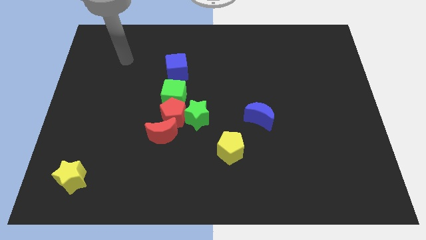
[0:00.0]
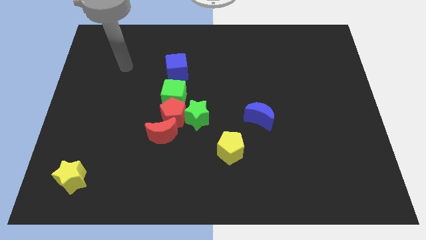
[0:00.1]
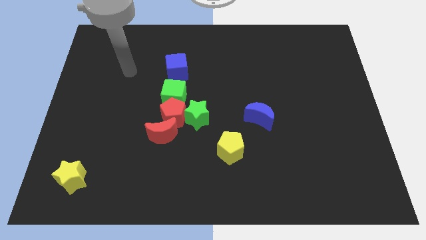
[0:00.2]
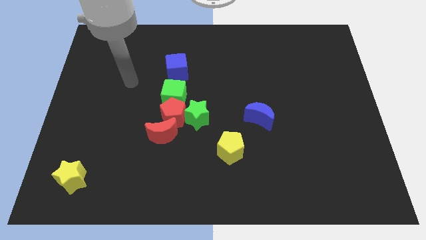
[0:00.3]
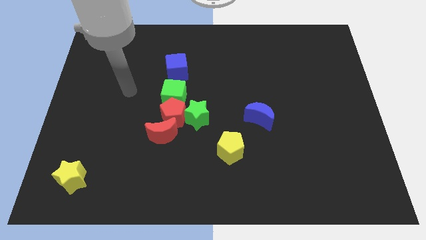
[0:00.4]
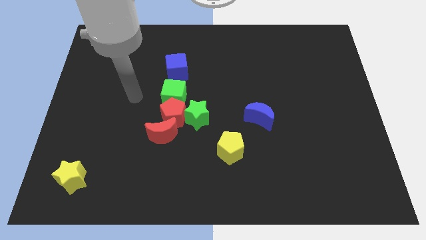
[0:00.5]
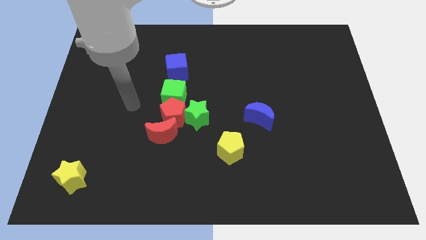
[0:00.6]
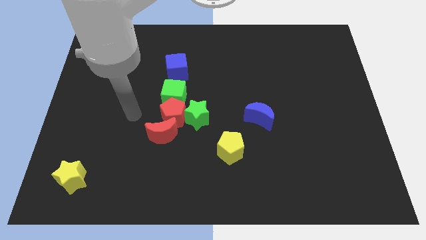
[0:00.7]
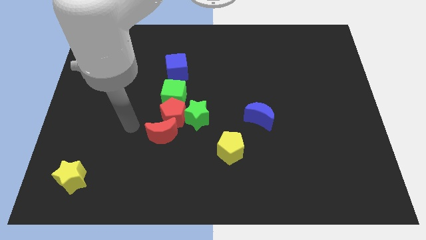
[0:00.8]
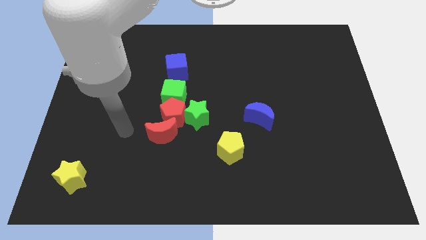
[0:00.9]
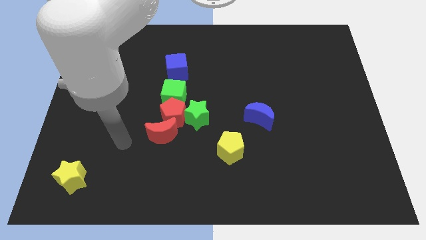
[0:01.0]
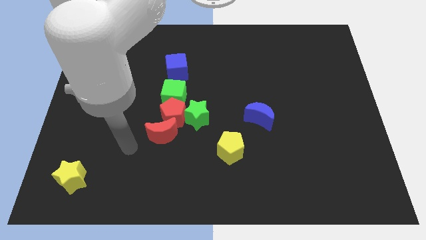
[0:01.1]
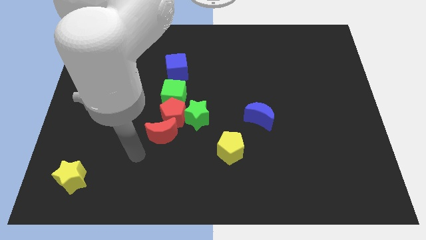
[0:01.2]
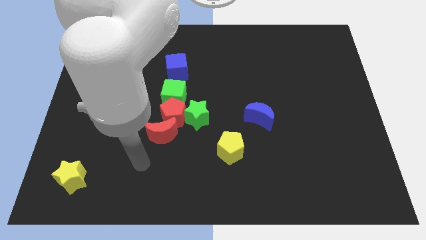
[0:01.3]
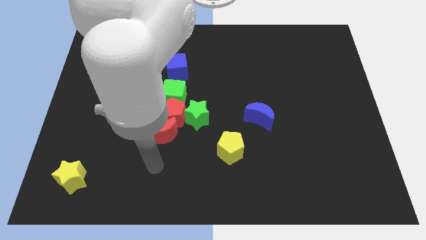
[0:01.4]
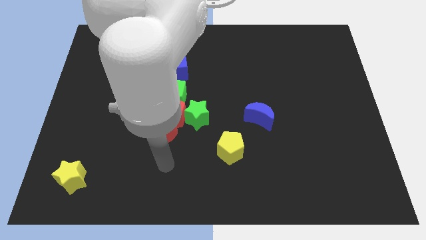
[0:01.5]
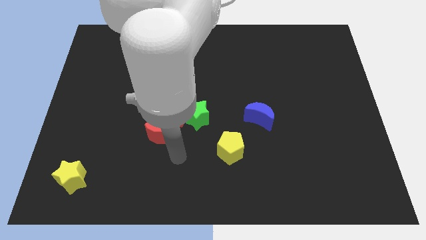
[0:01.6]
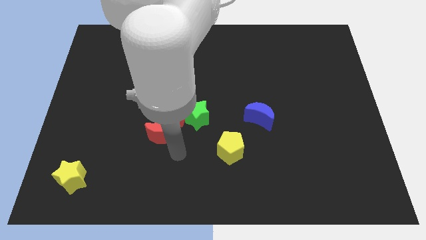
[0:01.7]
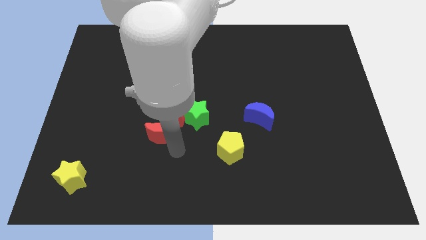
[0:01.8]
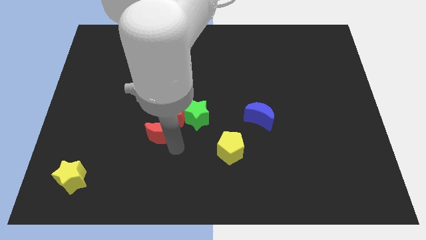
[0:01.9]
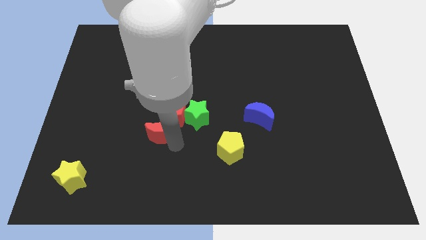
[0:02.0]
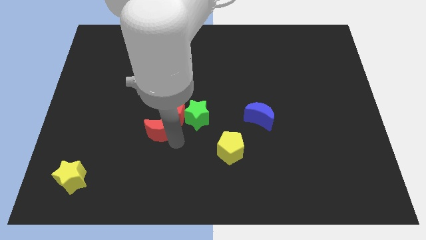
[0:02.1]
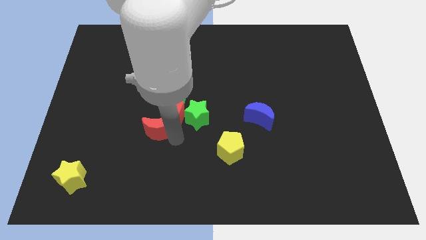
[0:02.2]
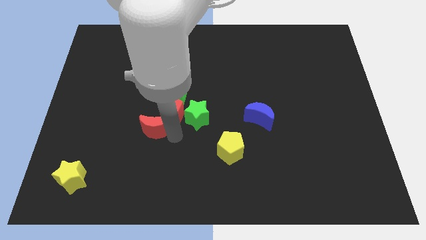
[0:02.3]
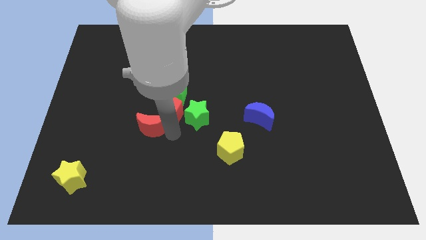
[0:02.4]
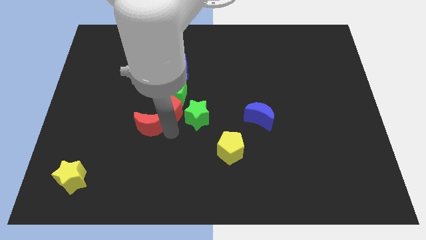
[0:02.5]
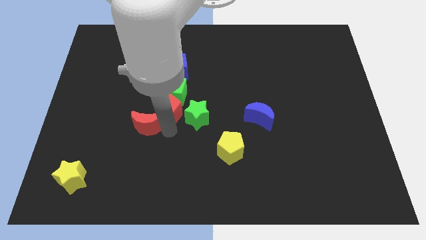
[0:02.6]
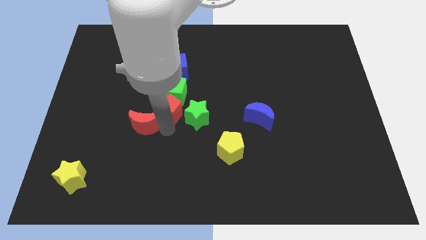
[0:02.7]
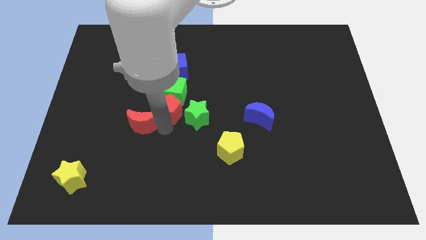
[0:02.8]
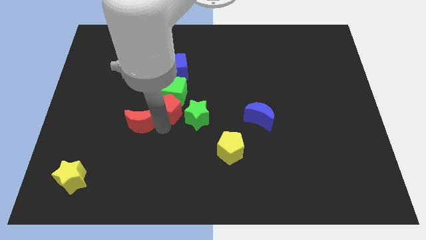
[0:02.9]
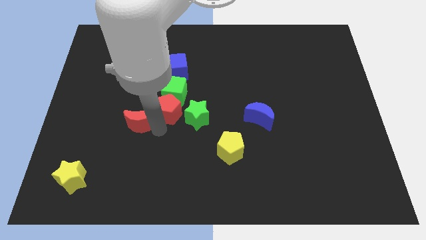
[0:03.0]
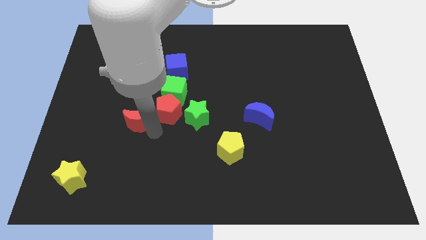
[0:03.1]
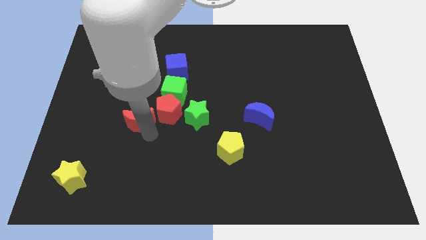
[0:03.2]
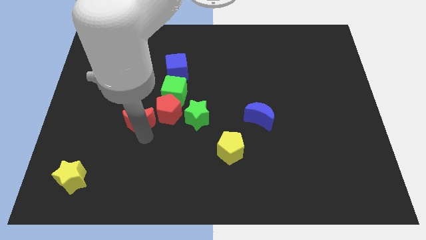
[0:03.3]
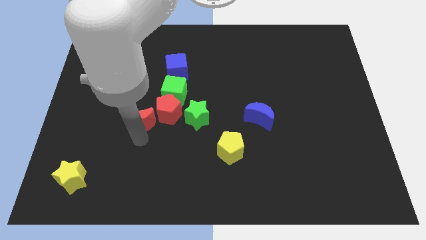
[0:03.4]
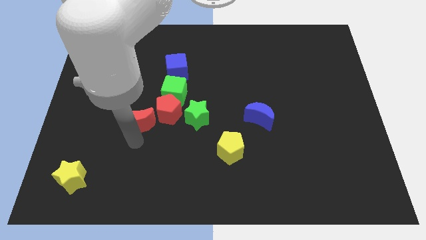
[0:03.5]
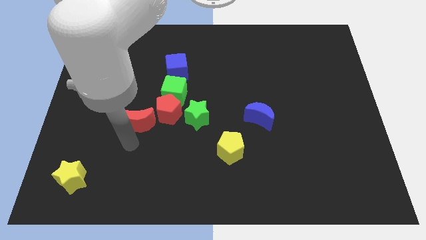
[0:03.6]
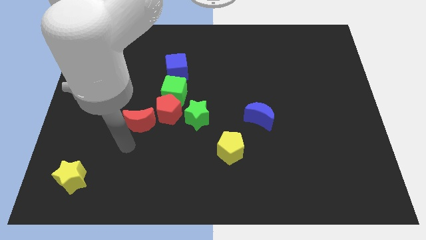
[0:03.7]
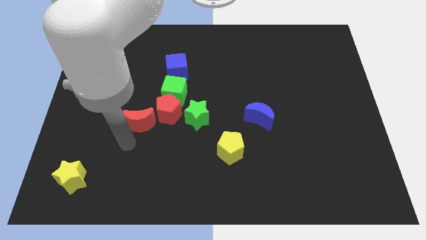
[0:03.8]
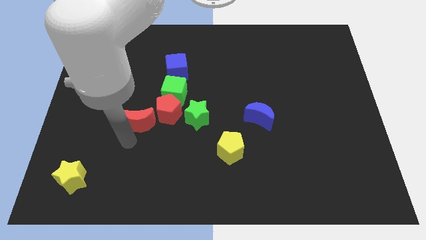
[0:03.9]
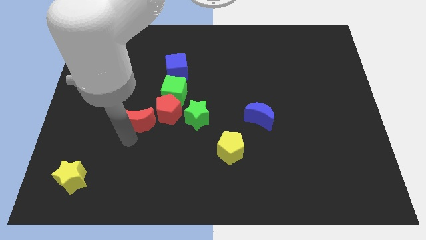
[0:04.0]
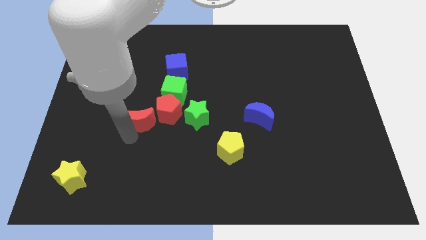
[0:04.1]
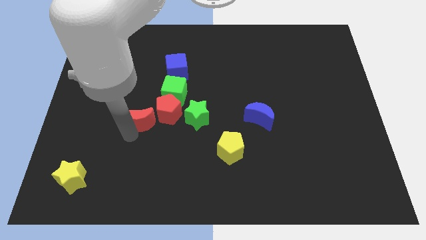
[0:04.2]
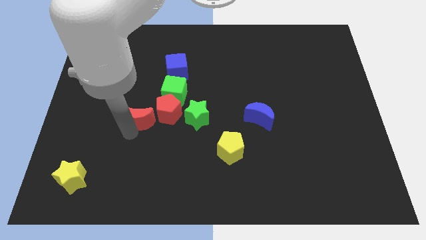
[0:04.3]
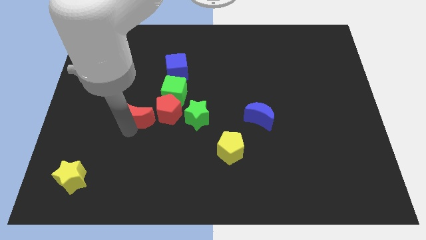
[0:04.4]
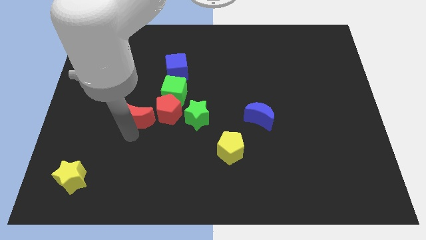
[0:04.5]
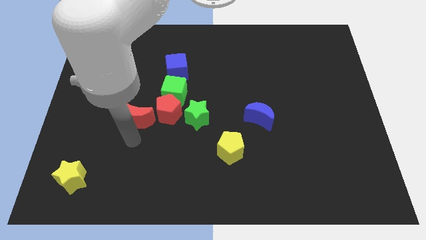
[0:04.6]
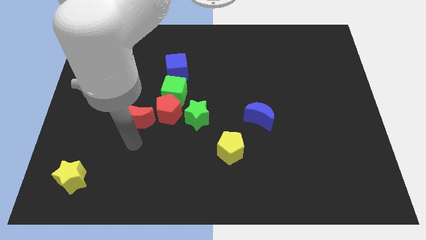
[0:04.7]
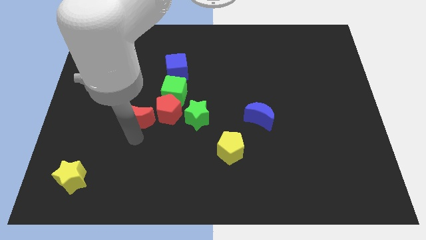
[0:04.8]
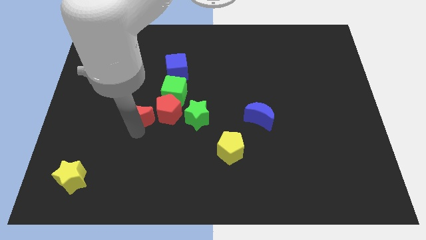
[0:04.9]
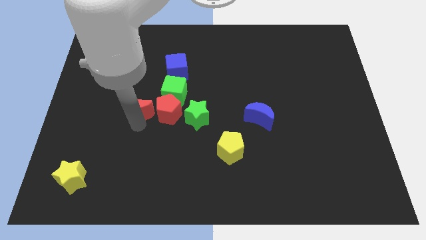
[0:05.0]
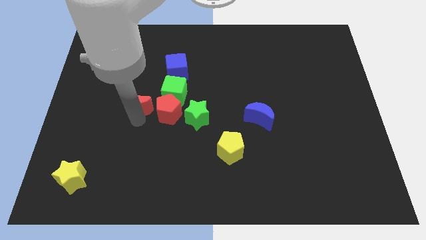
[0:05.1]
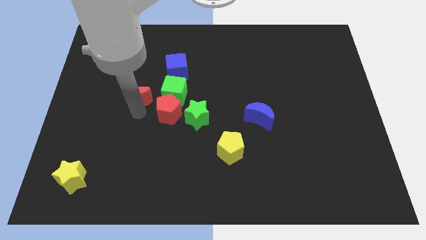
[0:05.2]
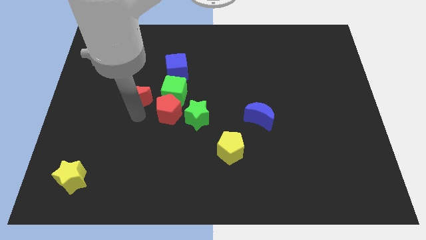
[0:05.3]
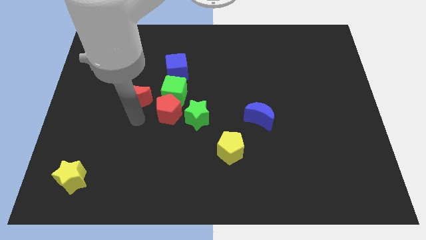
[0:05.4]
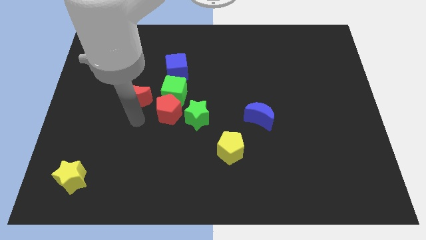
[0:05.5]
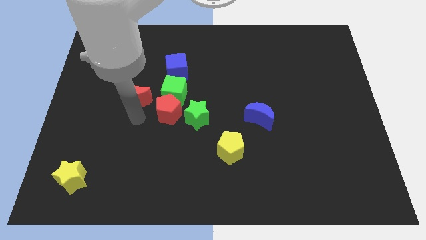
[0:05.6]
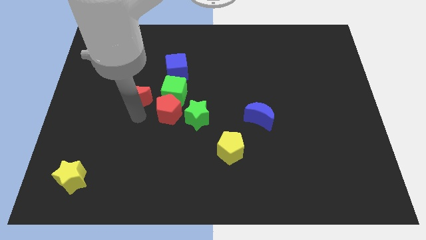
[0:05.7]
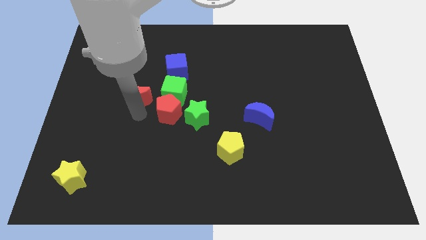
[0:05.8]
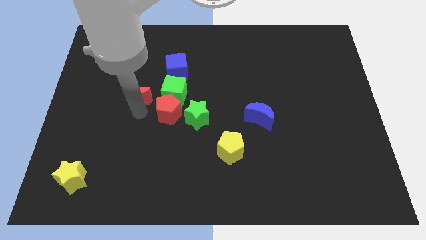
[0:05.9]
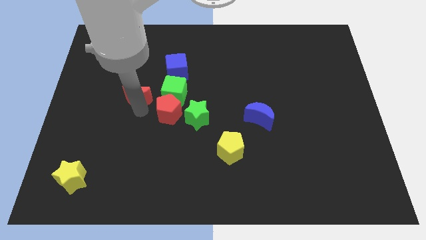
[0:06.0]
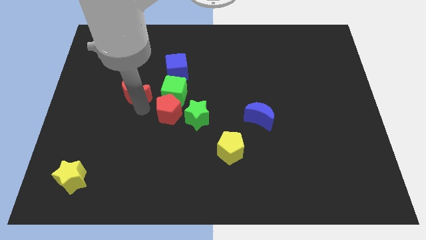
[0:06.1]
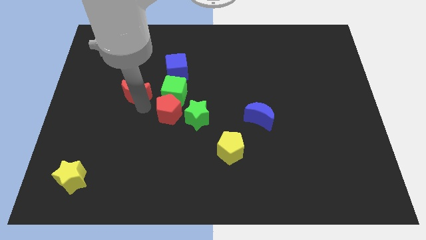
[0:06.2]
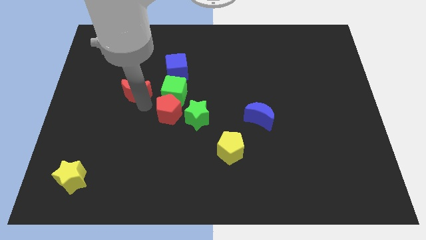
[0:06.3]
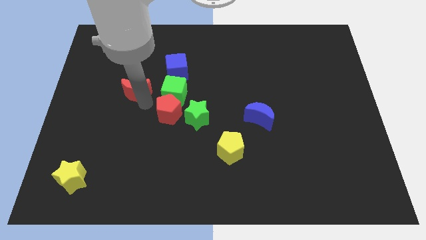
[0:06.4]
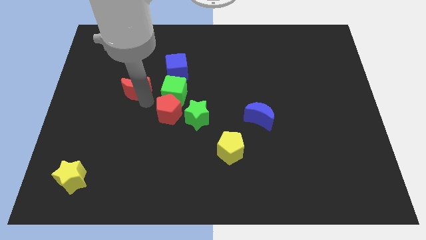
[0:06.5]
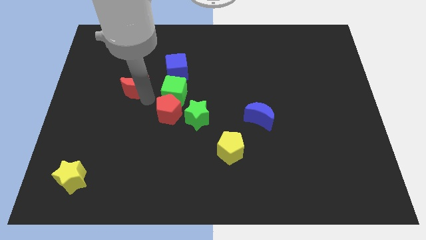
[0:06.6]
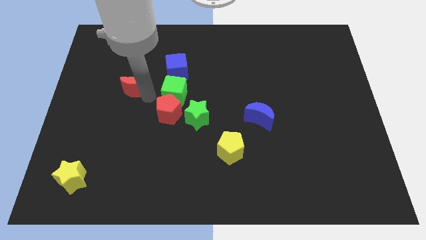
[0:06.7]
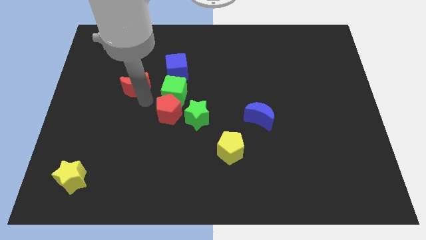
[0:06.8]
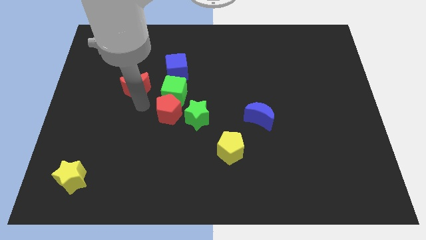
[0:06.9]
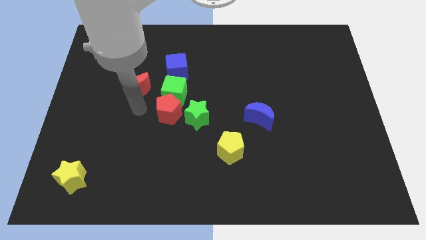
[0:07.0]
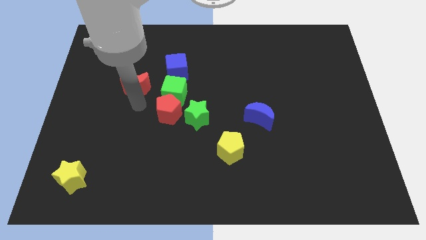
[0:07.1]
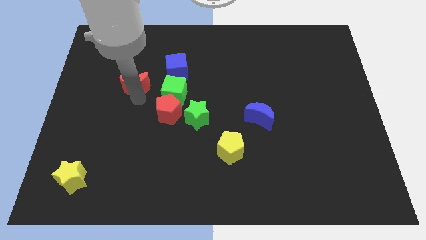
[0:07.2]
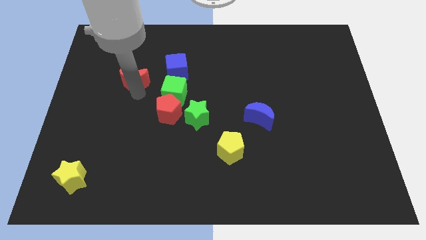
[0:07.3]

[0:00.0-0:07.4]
put the red moon to the left of the blue cube
